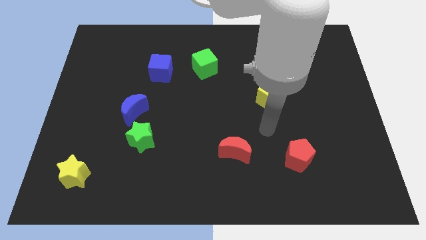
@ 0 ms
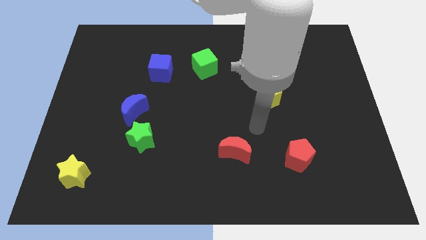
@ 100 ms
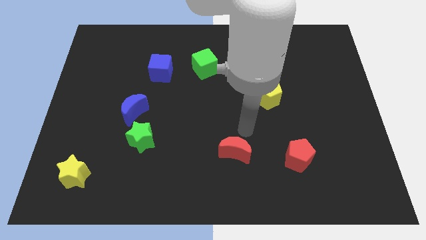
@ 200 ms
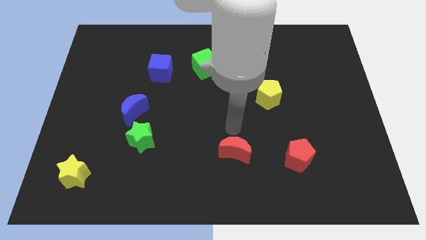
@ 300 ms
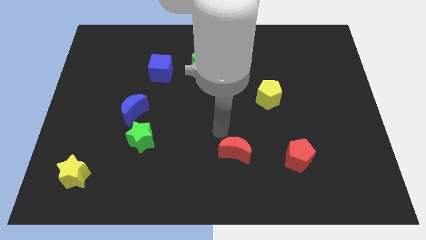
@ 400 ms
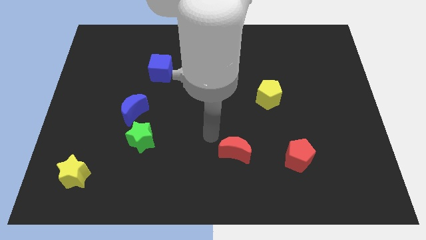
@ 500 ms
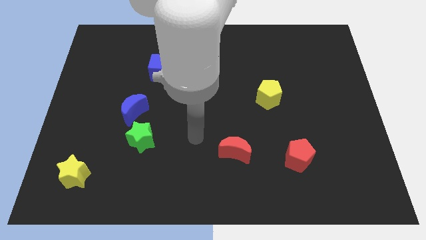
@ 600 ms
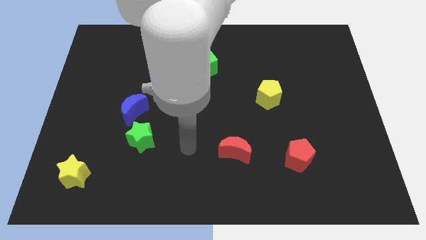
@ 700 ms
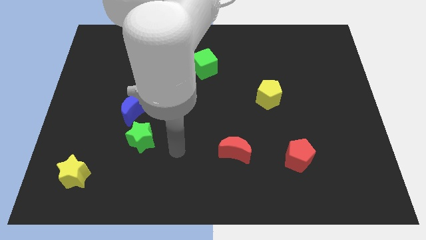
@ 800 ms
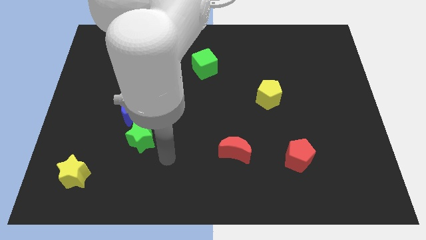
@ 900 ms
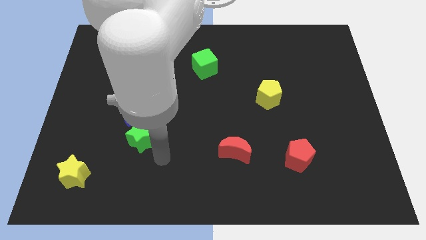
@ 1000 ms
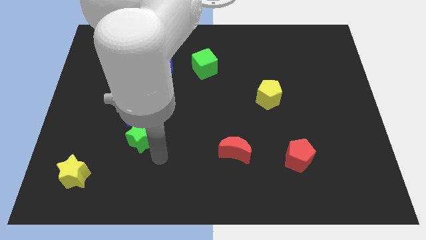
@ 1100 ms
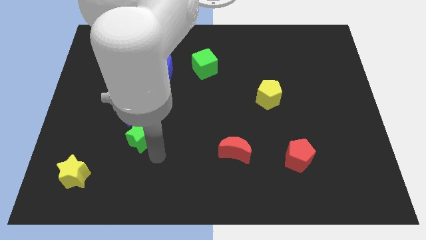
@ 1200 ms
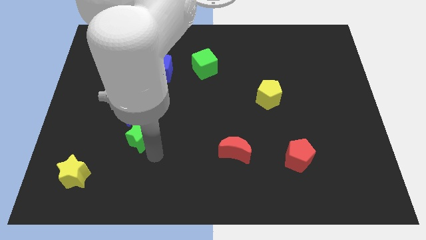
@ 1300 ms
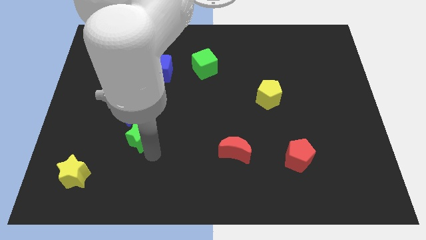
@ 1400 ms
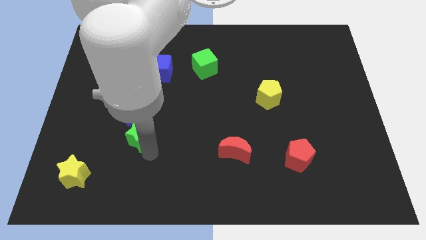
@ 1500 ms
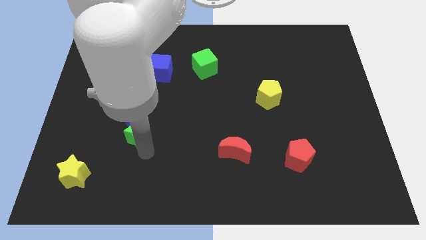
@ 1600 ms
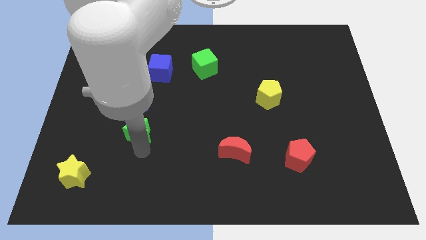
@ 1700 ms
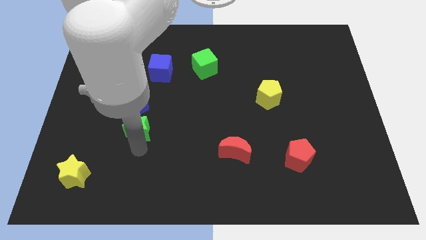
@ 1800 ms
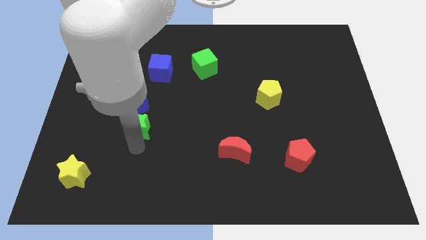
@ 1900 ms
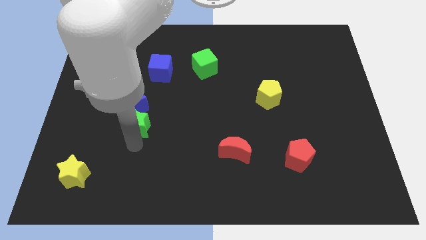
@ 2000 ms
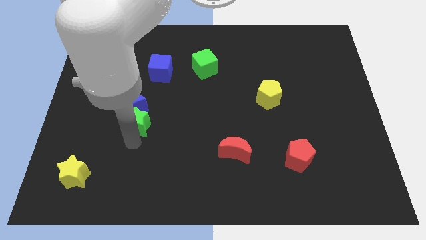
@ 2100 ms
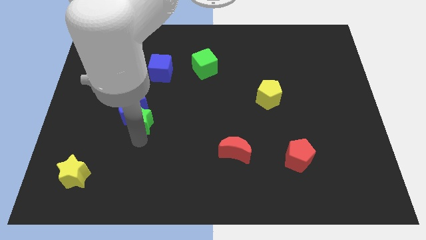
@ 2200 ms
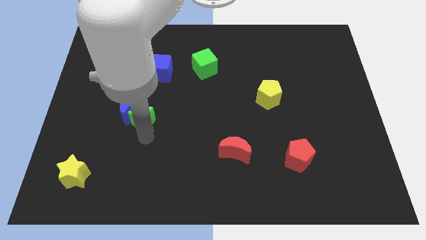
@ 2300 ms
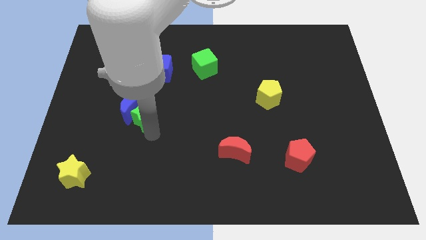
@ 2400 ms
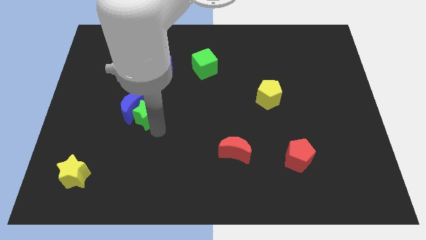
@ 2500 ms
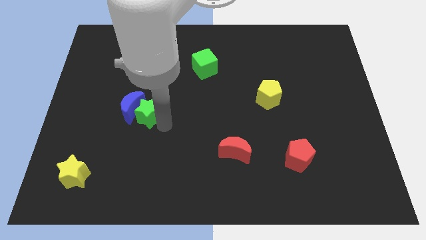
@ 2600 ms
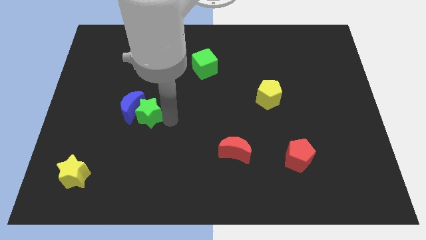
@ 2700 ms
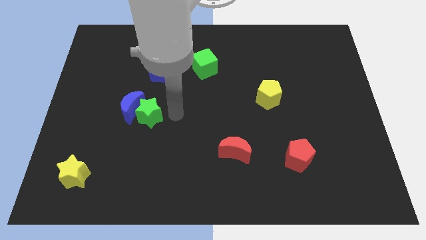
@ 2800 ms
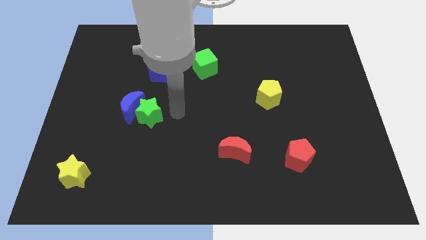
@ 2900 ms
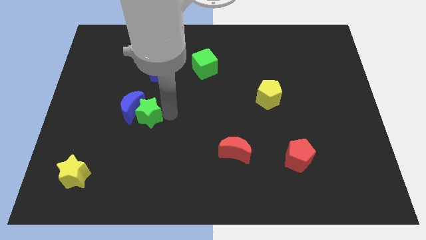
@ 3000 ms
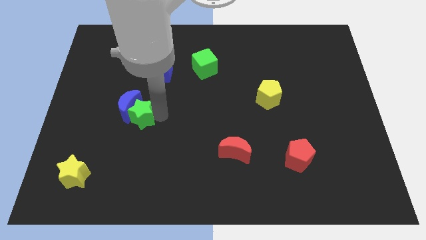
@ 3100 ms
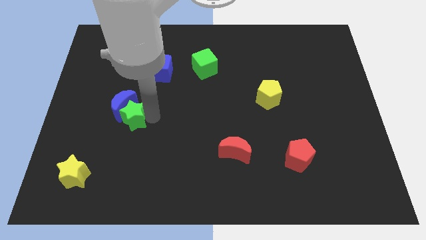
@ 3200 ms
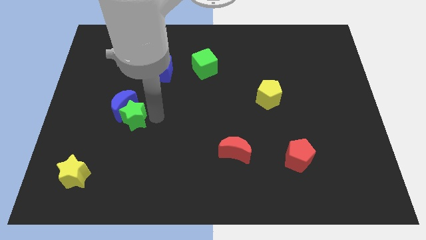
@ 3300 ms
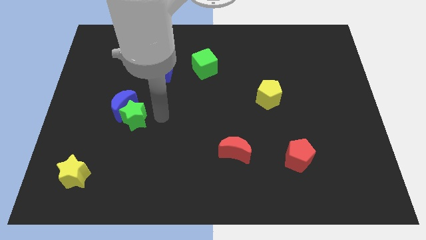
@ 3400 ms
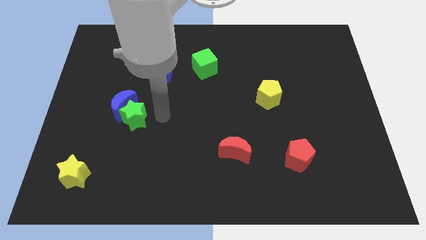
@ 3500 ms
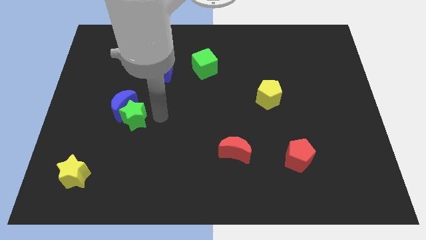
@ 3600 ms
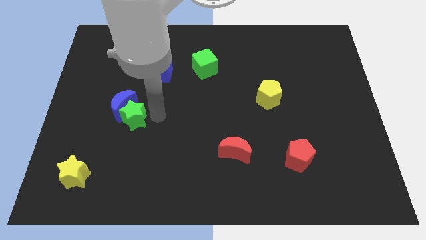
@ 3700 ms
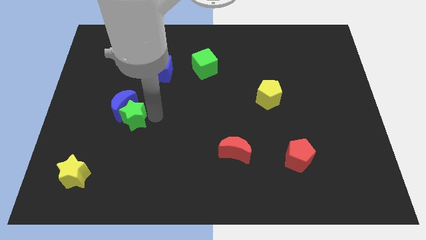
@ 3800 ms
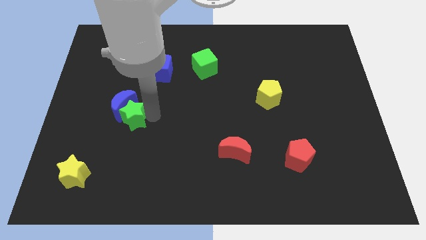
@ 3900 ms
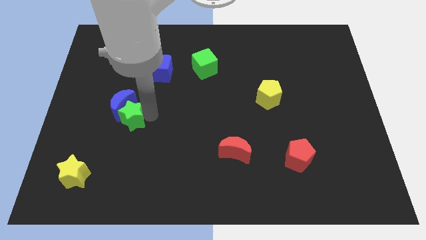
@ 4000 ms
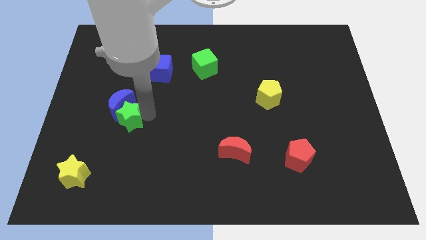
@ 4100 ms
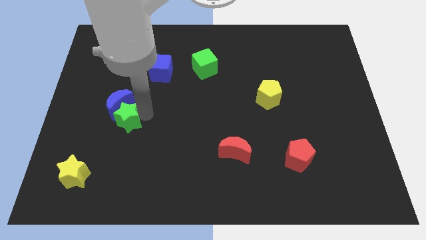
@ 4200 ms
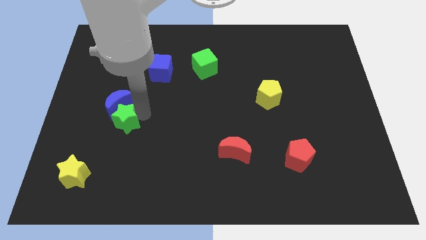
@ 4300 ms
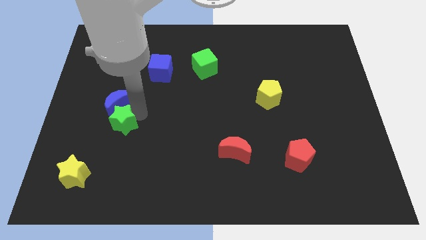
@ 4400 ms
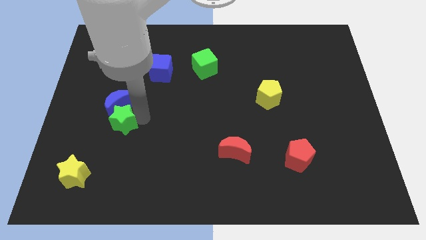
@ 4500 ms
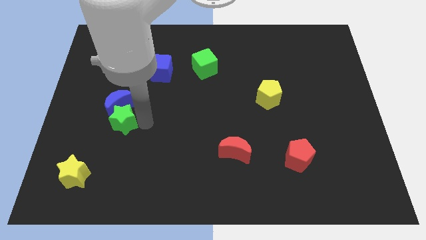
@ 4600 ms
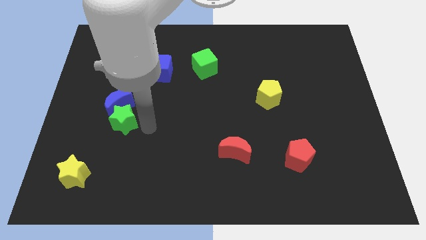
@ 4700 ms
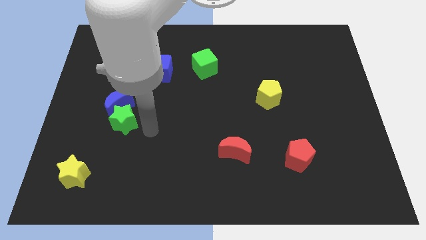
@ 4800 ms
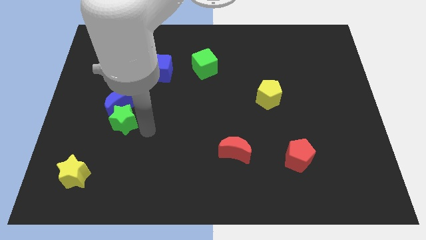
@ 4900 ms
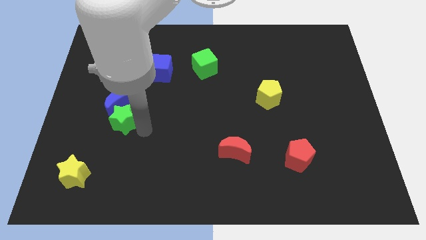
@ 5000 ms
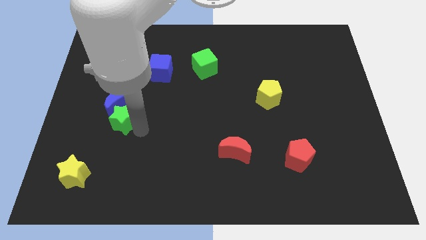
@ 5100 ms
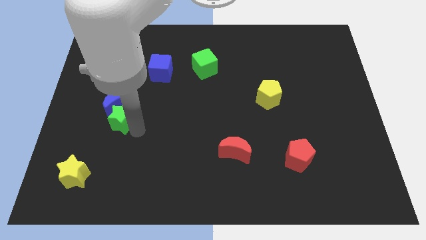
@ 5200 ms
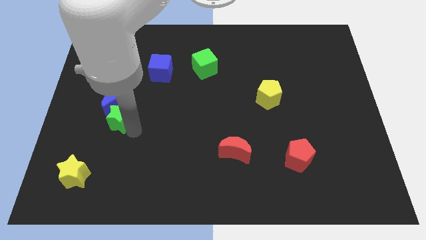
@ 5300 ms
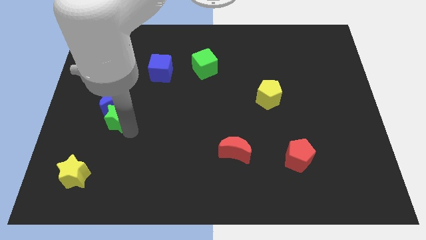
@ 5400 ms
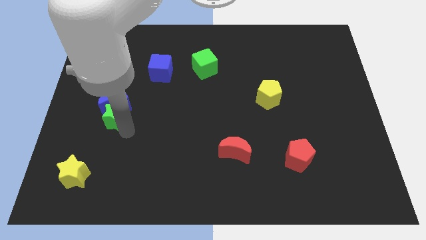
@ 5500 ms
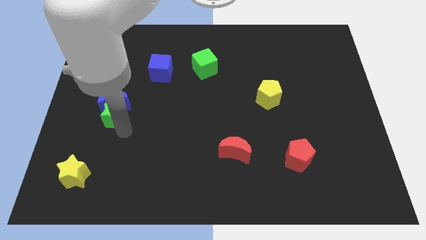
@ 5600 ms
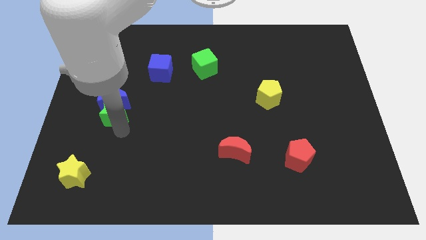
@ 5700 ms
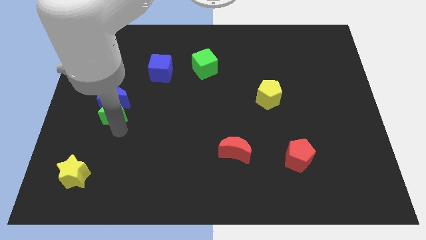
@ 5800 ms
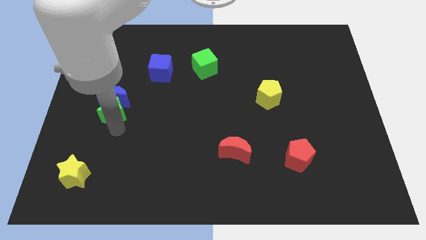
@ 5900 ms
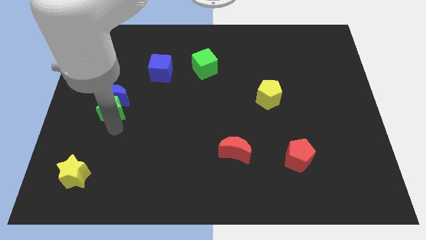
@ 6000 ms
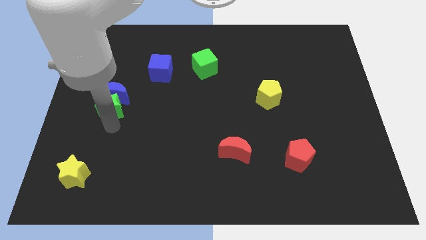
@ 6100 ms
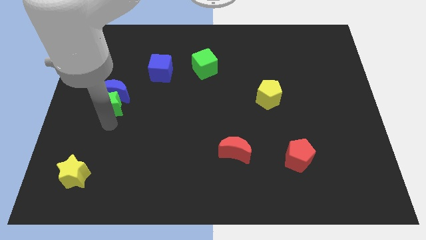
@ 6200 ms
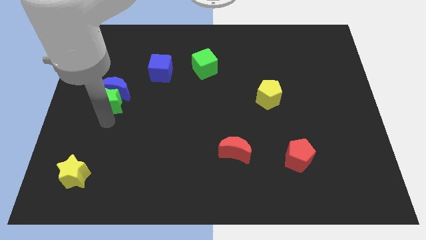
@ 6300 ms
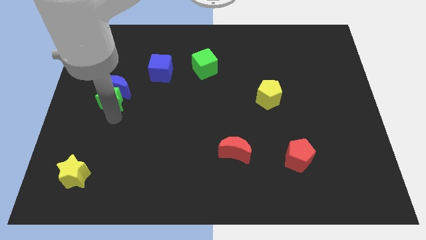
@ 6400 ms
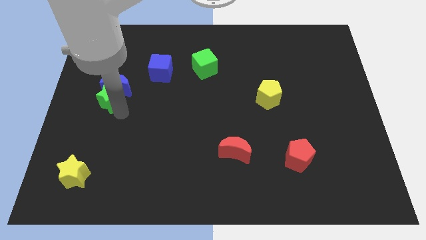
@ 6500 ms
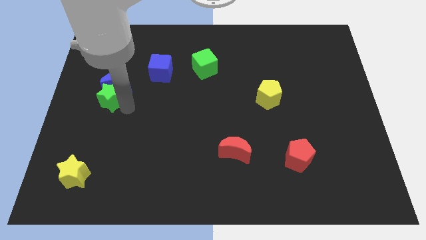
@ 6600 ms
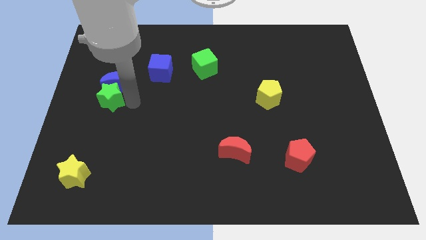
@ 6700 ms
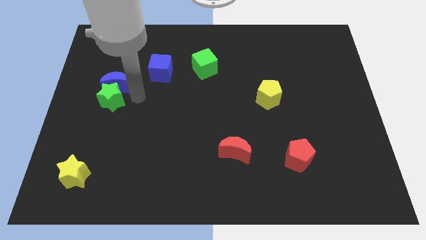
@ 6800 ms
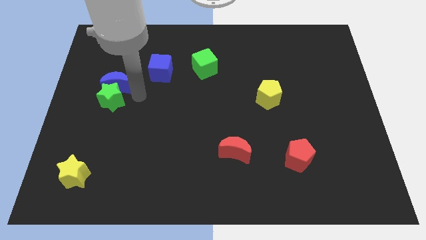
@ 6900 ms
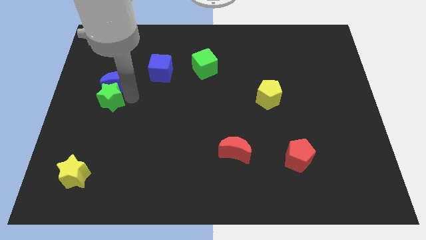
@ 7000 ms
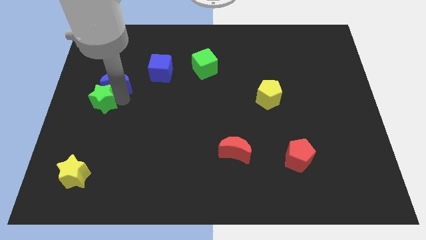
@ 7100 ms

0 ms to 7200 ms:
slide the green star to the left side of the board

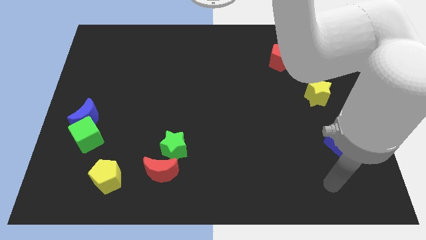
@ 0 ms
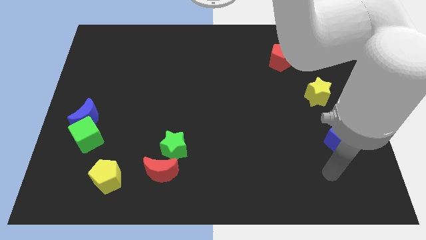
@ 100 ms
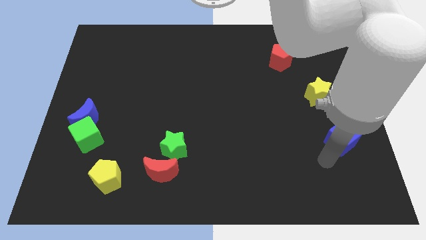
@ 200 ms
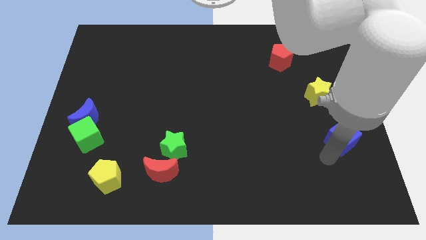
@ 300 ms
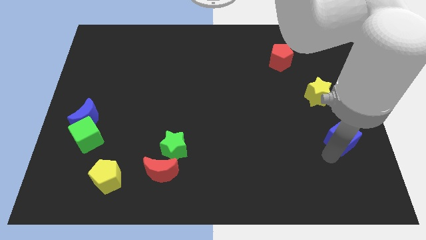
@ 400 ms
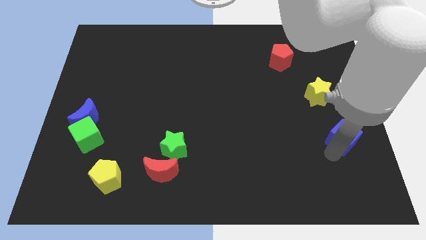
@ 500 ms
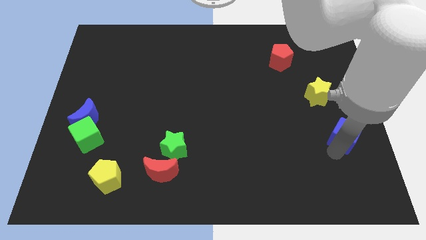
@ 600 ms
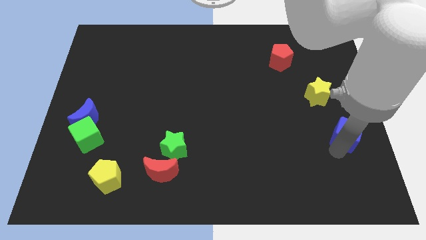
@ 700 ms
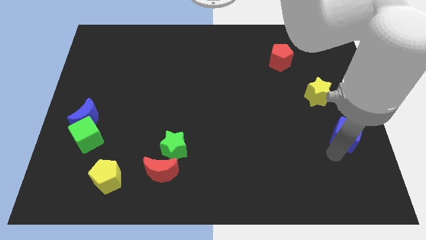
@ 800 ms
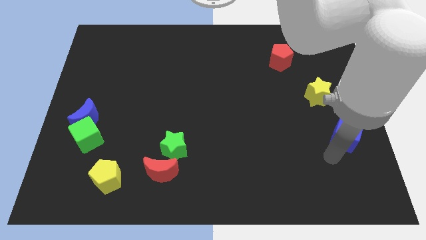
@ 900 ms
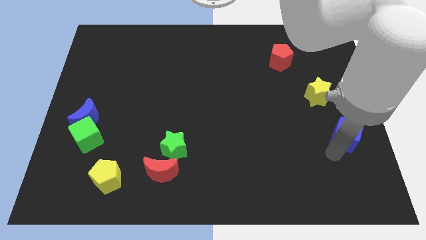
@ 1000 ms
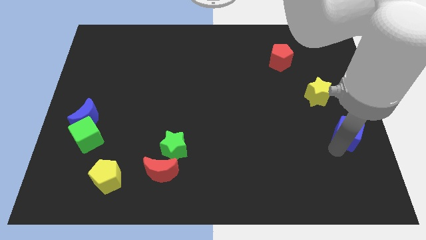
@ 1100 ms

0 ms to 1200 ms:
put the blue cube to the center right
